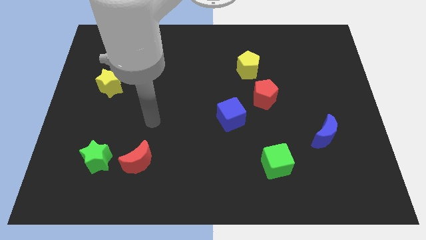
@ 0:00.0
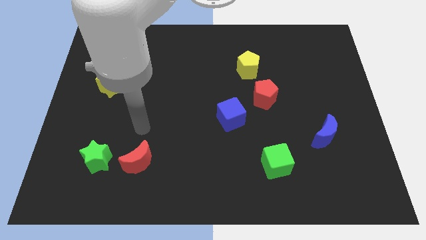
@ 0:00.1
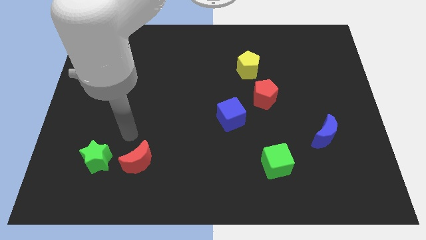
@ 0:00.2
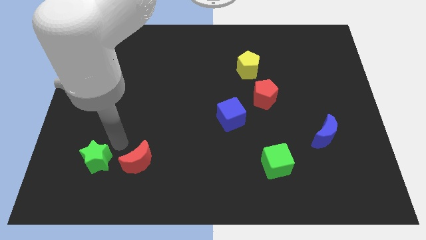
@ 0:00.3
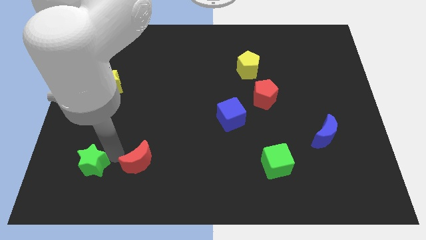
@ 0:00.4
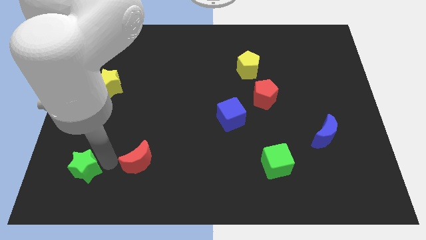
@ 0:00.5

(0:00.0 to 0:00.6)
move the red moon away from the green star

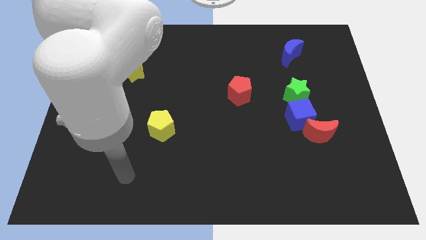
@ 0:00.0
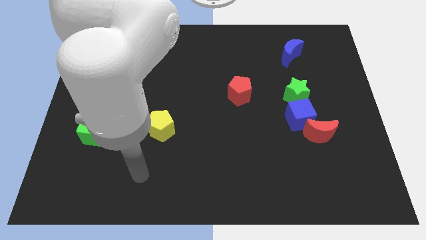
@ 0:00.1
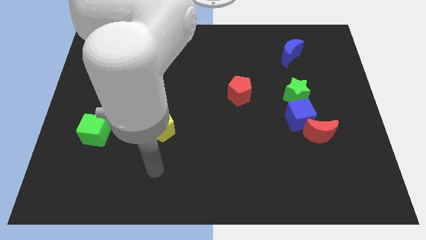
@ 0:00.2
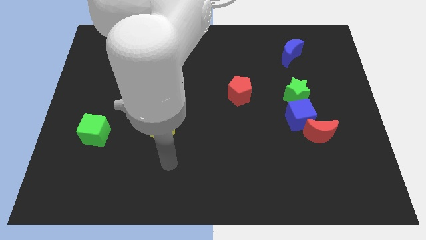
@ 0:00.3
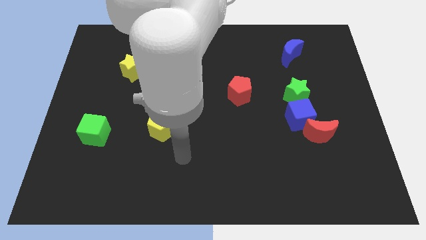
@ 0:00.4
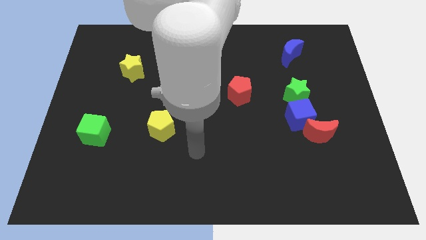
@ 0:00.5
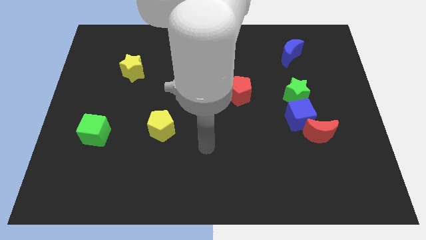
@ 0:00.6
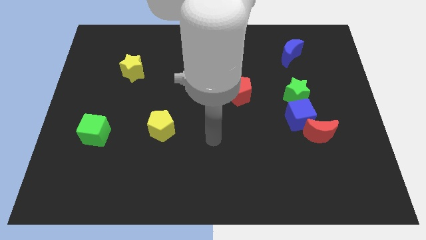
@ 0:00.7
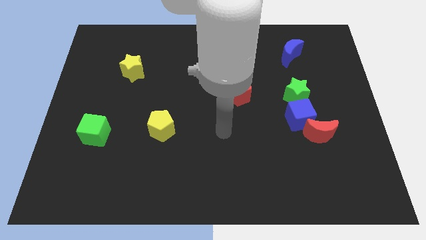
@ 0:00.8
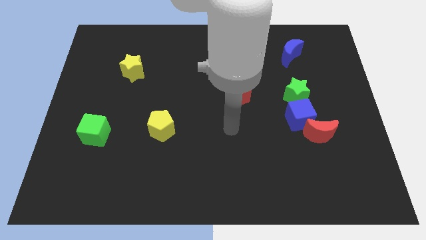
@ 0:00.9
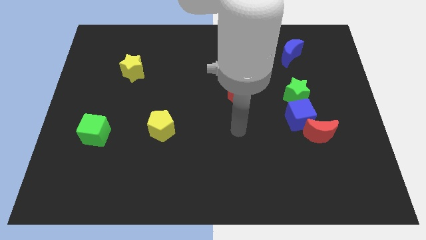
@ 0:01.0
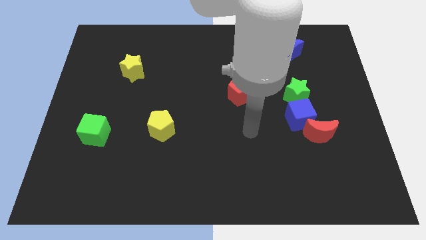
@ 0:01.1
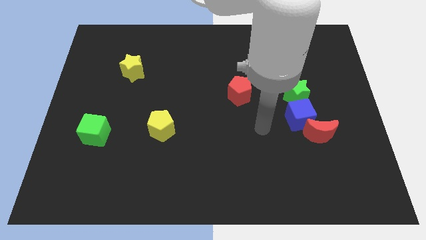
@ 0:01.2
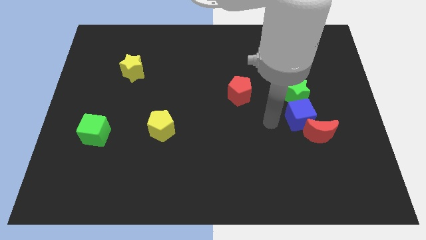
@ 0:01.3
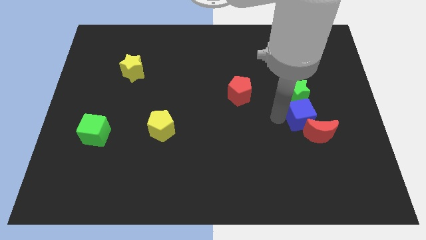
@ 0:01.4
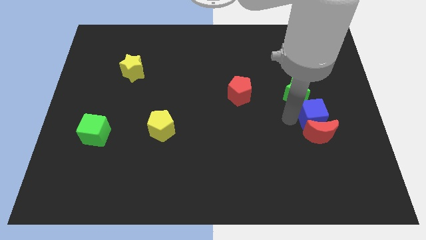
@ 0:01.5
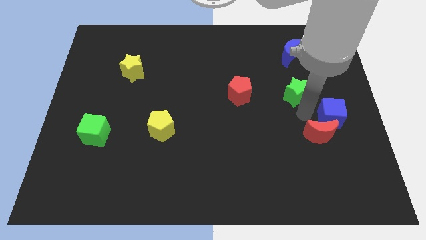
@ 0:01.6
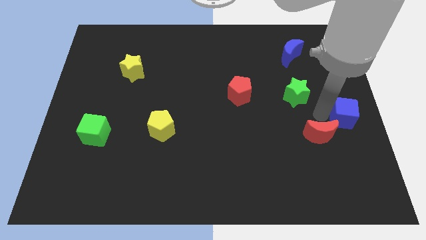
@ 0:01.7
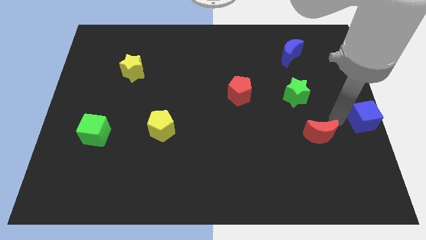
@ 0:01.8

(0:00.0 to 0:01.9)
move the red moon away from the blue cube

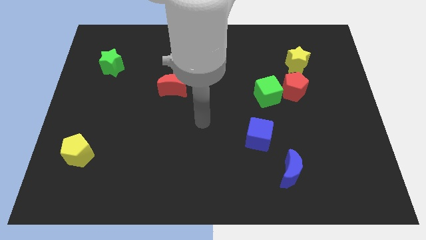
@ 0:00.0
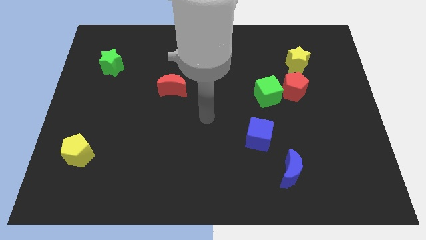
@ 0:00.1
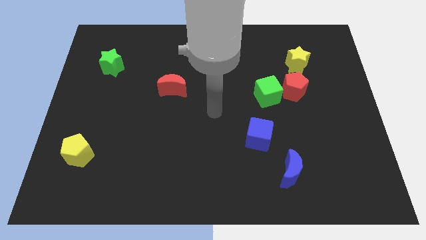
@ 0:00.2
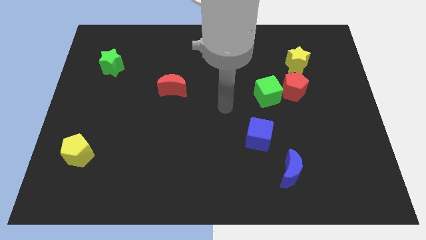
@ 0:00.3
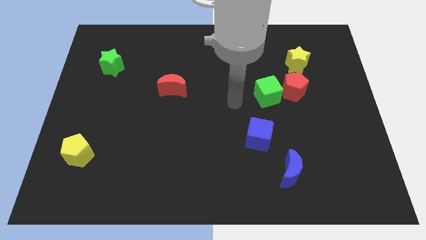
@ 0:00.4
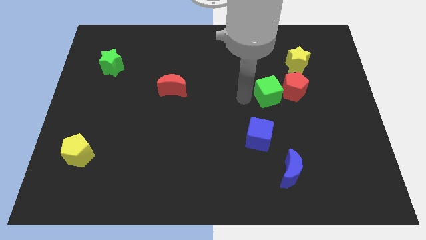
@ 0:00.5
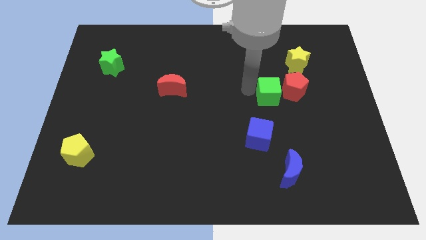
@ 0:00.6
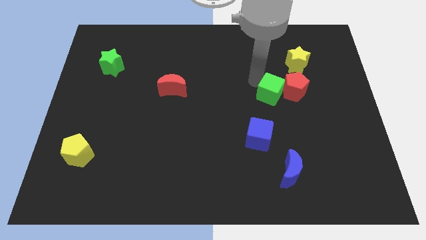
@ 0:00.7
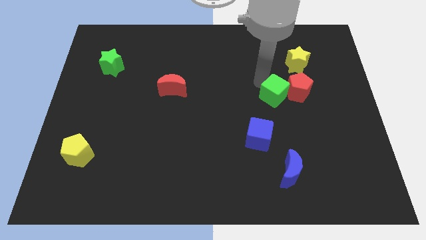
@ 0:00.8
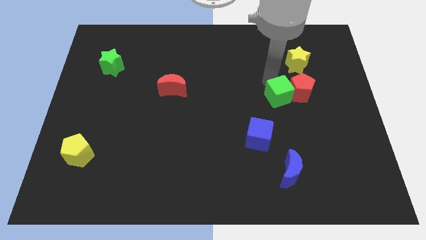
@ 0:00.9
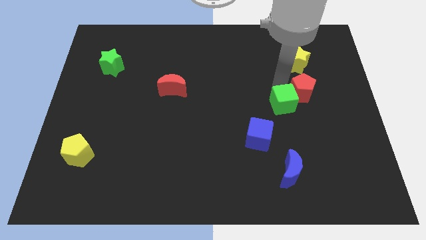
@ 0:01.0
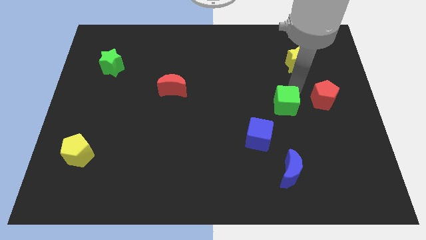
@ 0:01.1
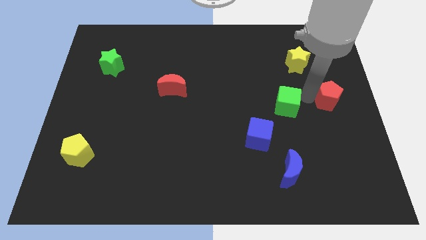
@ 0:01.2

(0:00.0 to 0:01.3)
move the green cube away from the red pentagon

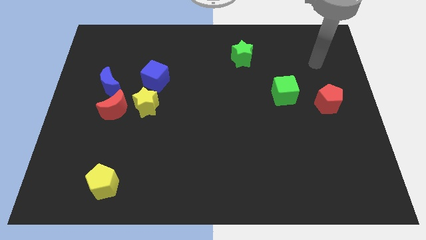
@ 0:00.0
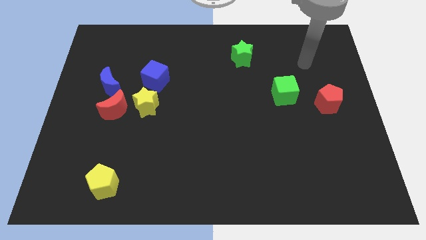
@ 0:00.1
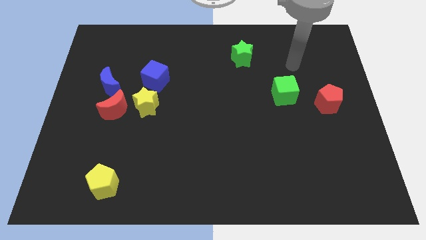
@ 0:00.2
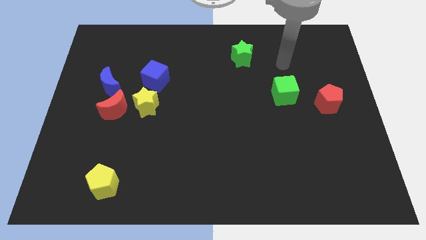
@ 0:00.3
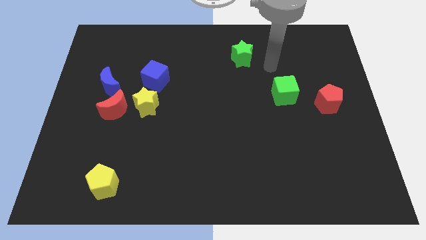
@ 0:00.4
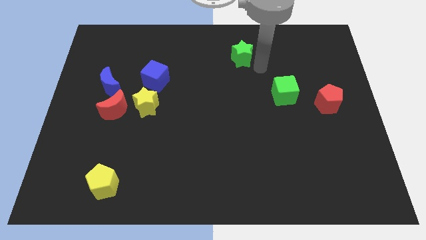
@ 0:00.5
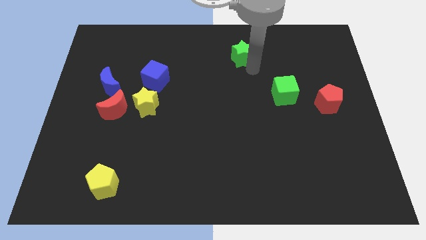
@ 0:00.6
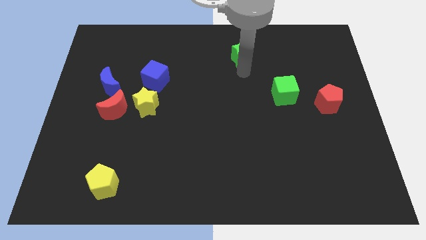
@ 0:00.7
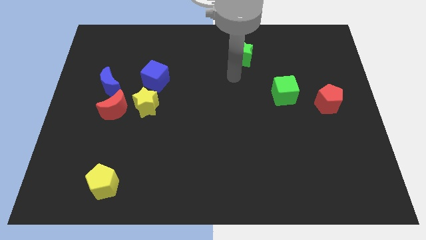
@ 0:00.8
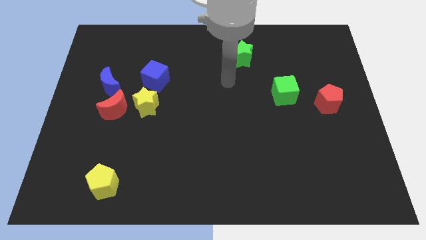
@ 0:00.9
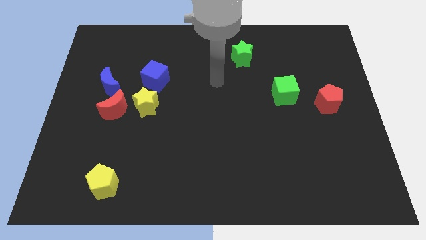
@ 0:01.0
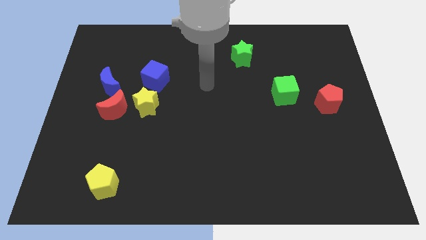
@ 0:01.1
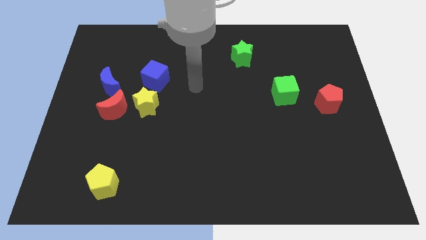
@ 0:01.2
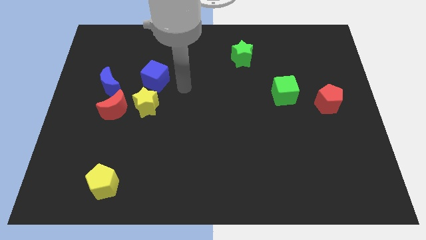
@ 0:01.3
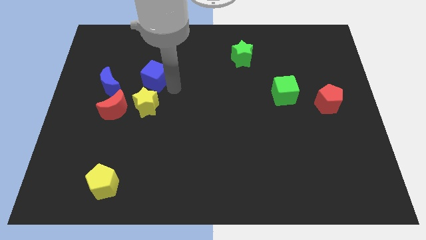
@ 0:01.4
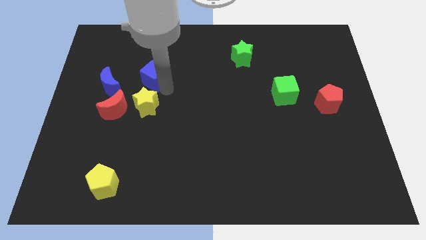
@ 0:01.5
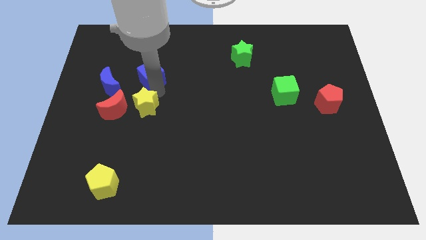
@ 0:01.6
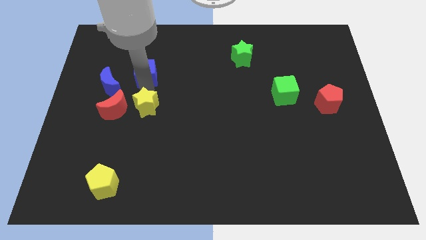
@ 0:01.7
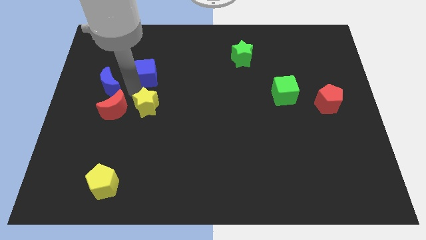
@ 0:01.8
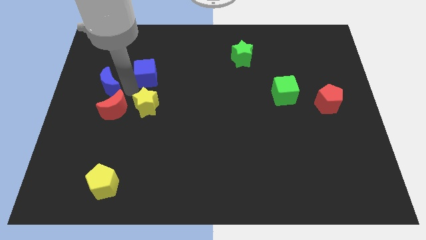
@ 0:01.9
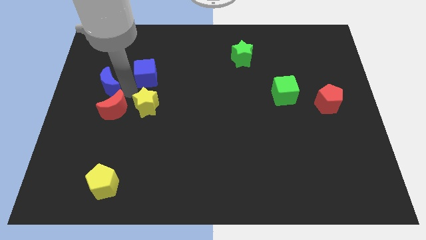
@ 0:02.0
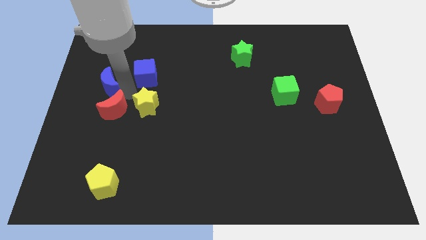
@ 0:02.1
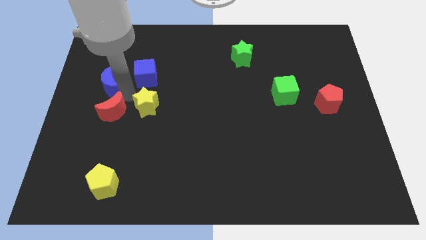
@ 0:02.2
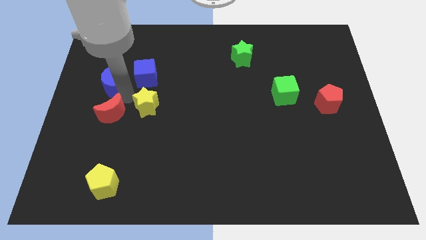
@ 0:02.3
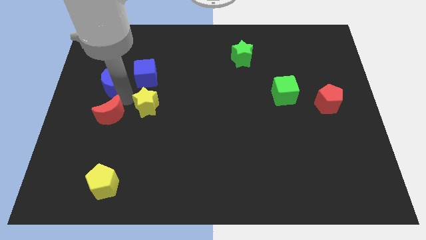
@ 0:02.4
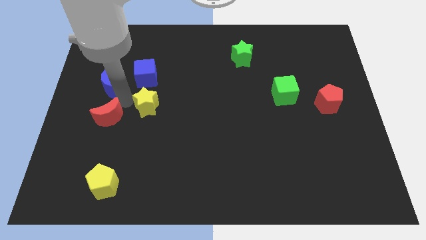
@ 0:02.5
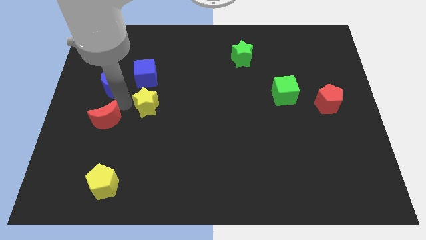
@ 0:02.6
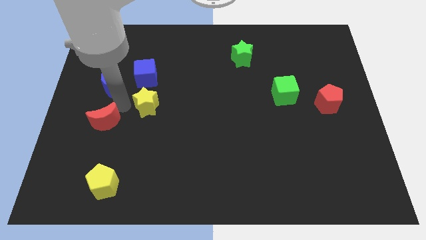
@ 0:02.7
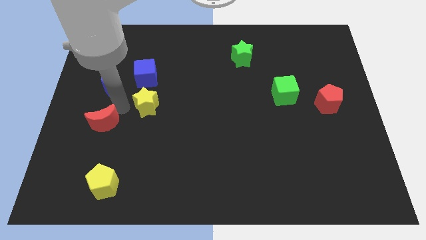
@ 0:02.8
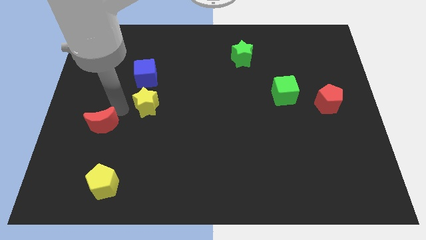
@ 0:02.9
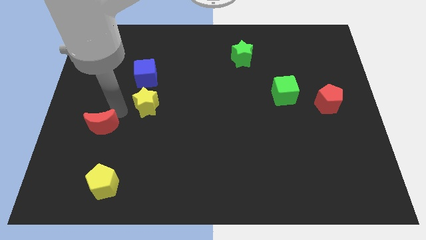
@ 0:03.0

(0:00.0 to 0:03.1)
separate the red moon from the yellow star and blue moon

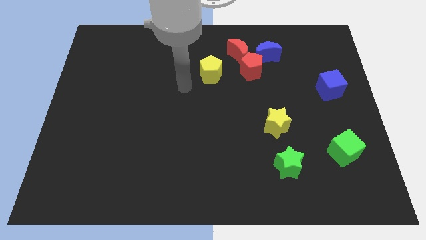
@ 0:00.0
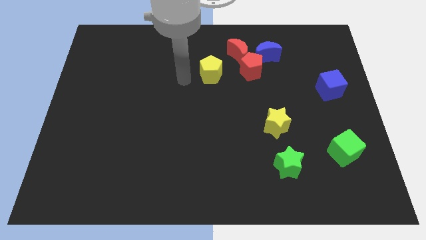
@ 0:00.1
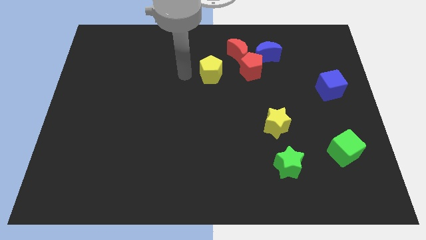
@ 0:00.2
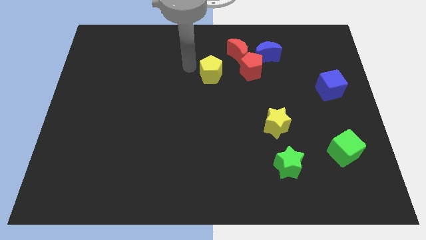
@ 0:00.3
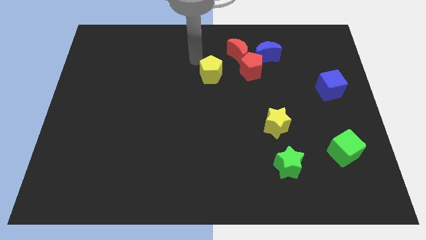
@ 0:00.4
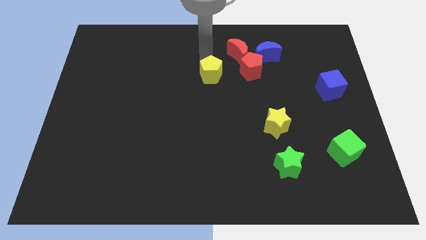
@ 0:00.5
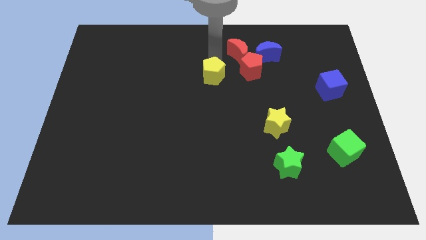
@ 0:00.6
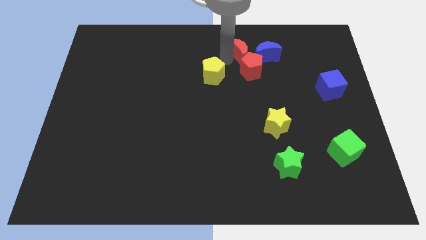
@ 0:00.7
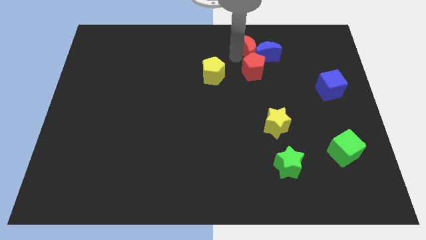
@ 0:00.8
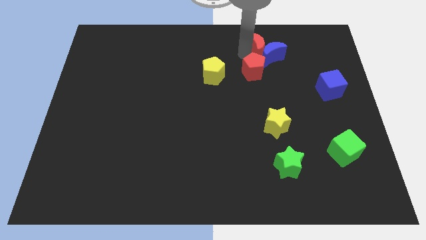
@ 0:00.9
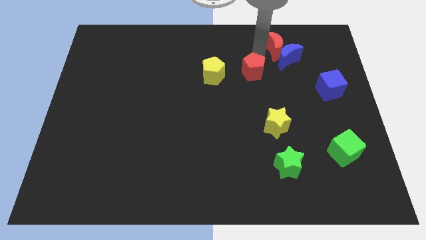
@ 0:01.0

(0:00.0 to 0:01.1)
pull the red pentagon apart from the red moon and blue moon

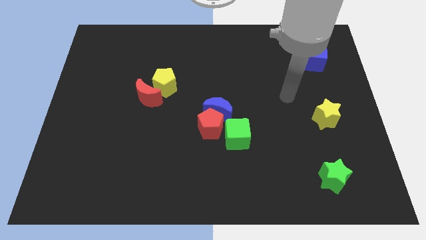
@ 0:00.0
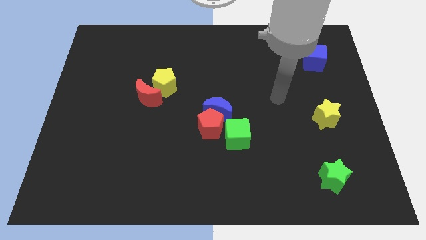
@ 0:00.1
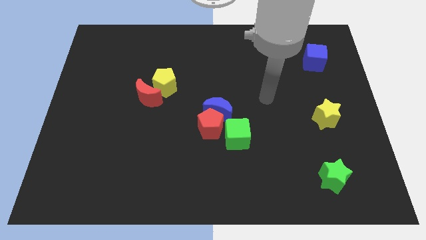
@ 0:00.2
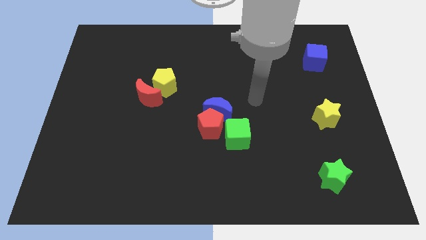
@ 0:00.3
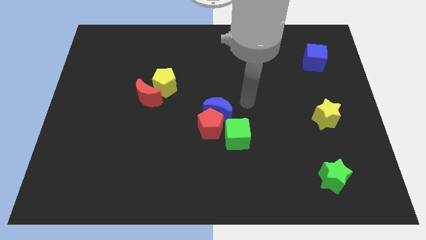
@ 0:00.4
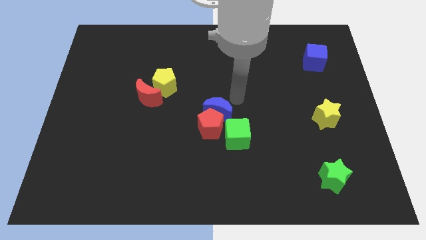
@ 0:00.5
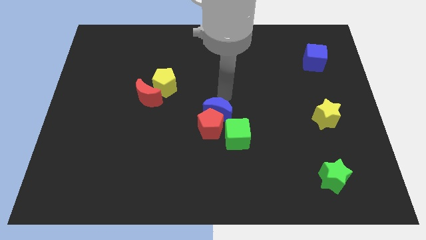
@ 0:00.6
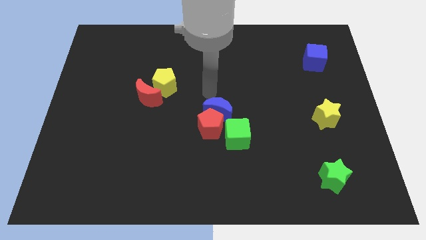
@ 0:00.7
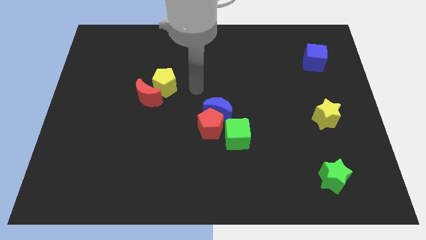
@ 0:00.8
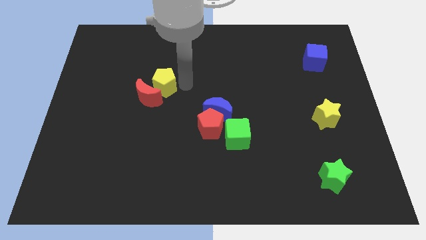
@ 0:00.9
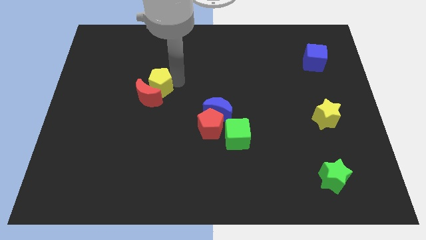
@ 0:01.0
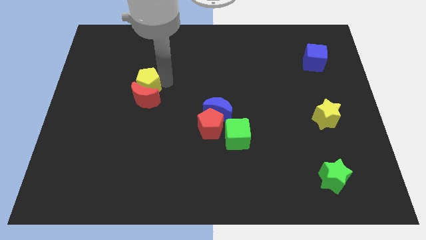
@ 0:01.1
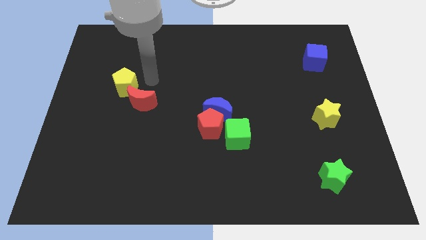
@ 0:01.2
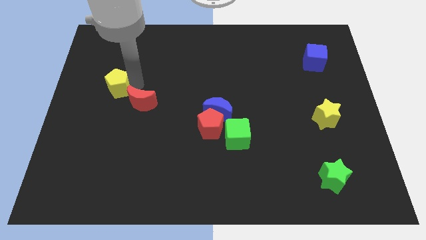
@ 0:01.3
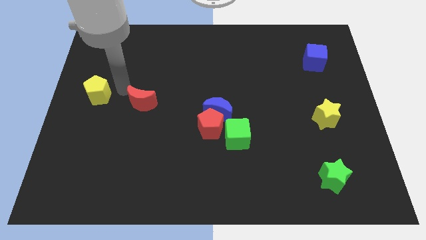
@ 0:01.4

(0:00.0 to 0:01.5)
pull the red moon apart from the yellow pentagon
